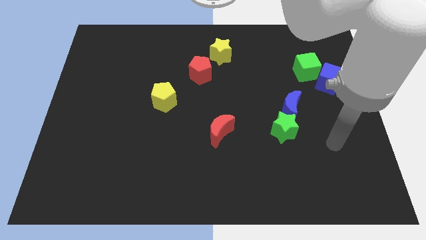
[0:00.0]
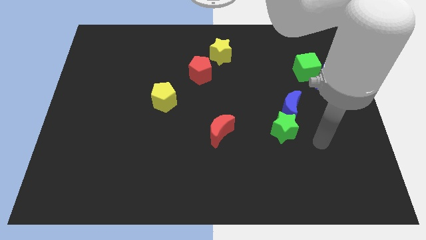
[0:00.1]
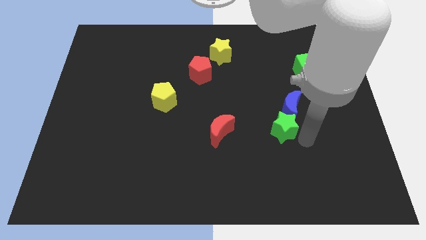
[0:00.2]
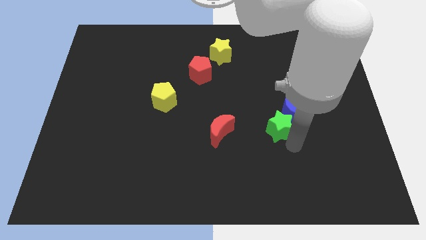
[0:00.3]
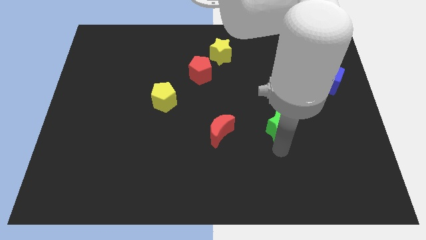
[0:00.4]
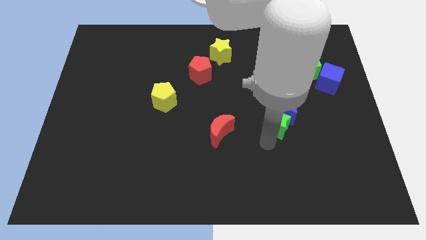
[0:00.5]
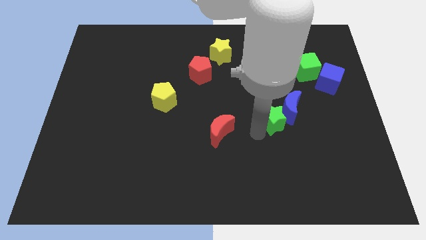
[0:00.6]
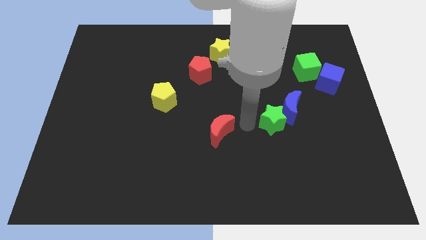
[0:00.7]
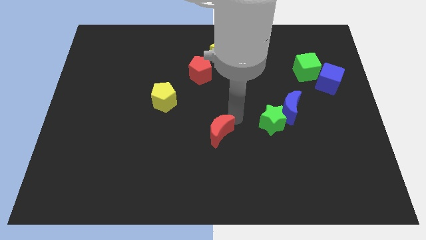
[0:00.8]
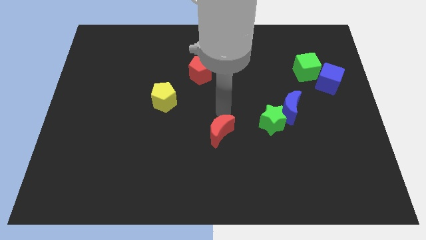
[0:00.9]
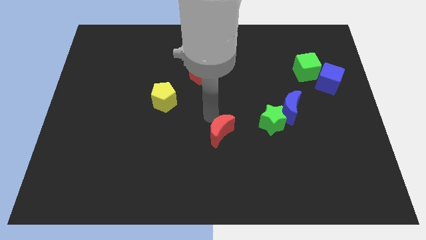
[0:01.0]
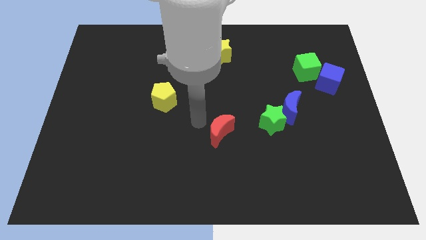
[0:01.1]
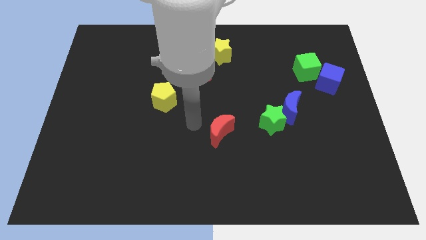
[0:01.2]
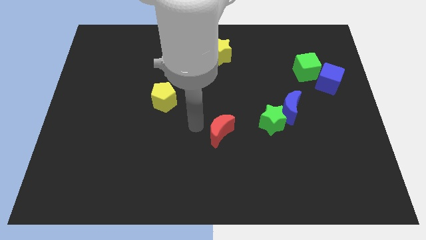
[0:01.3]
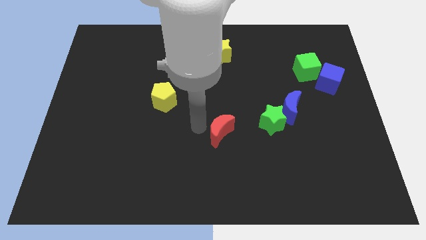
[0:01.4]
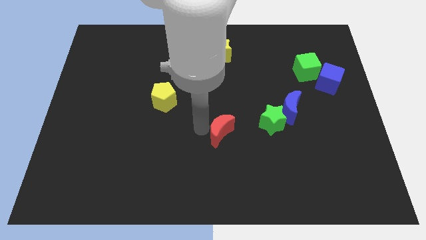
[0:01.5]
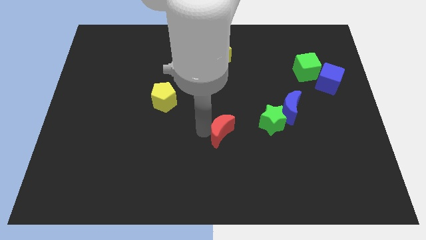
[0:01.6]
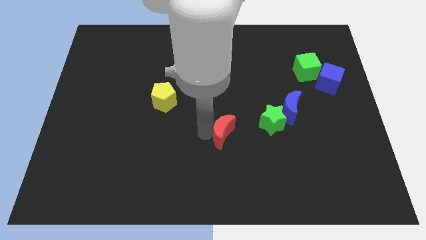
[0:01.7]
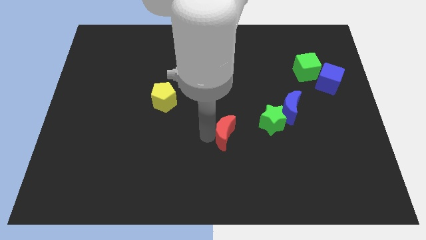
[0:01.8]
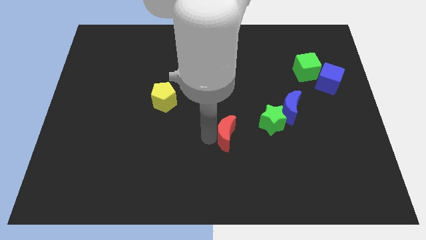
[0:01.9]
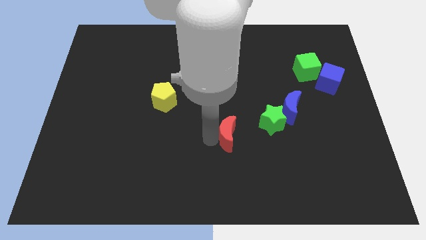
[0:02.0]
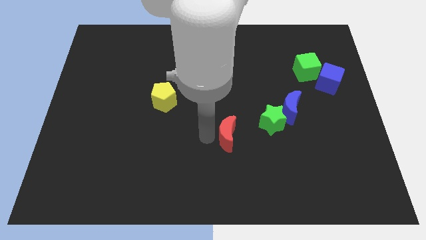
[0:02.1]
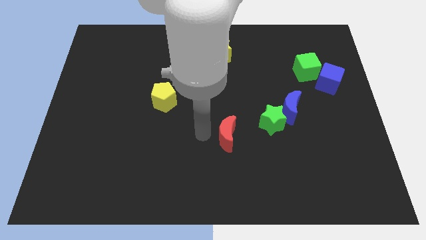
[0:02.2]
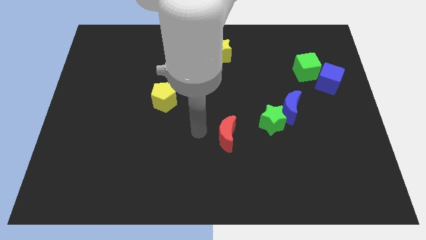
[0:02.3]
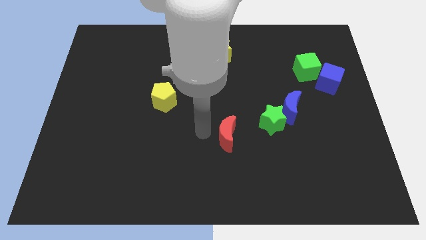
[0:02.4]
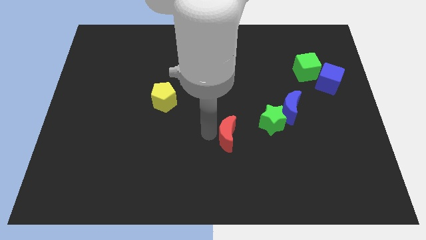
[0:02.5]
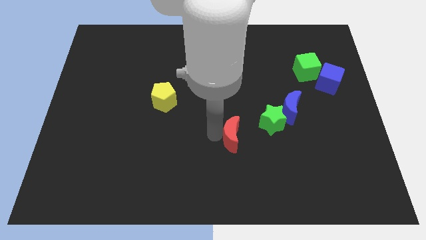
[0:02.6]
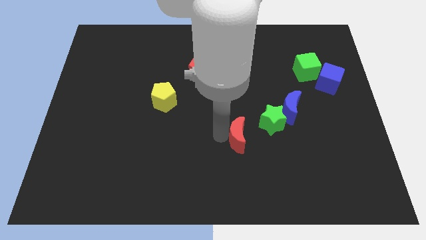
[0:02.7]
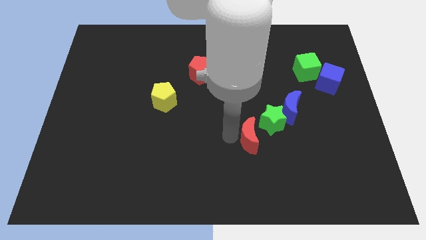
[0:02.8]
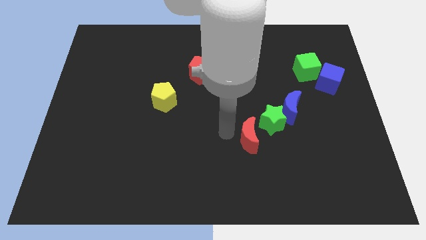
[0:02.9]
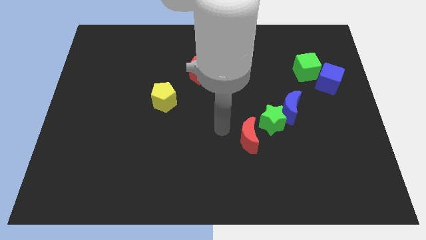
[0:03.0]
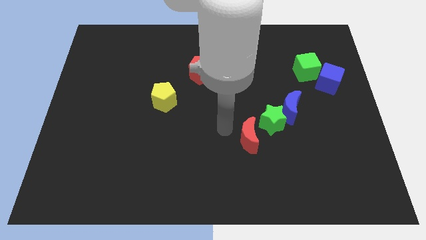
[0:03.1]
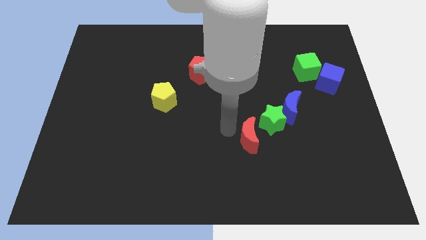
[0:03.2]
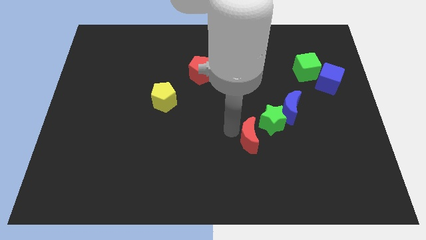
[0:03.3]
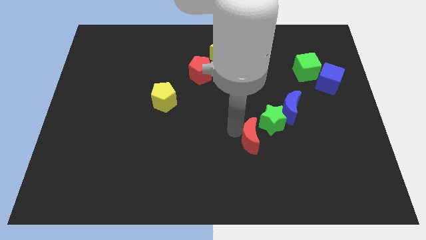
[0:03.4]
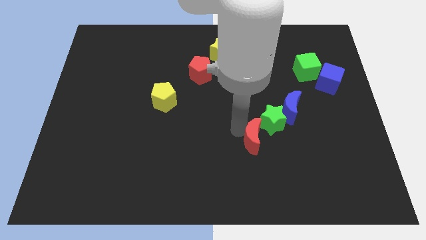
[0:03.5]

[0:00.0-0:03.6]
slightly push the red moon right

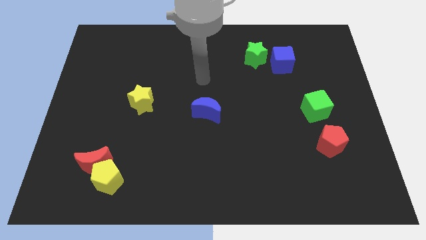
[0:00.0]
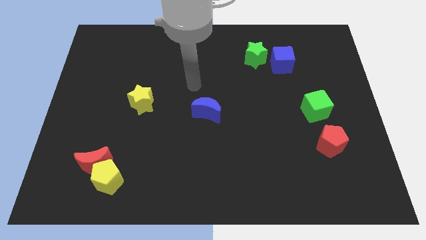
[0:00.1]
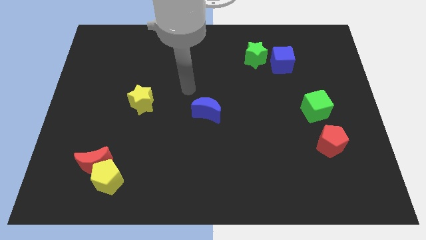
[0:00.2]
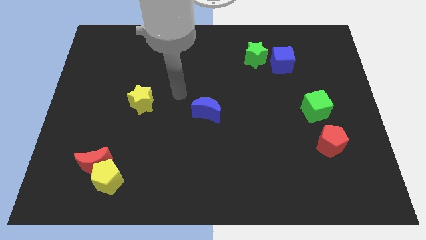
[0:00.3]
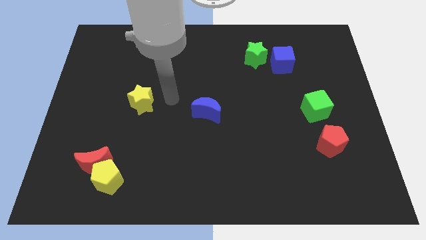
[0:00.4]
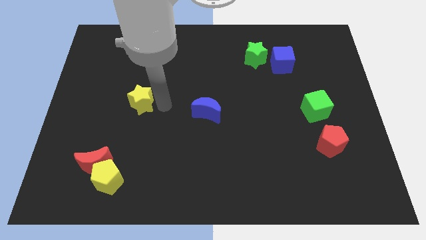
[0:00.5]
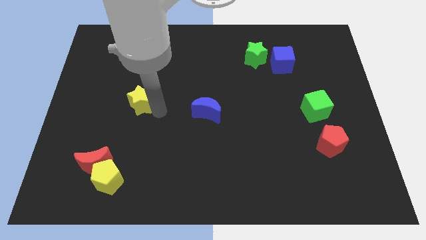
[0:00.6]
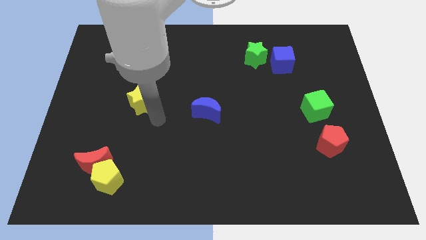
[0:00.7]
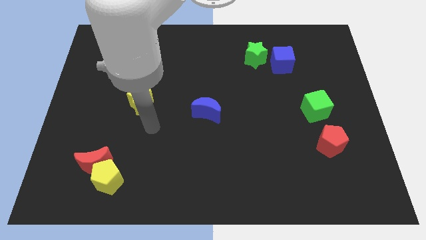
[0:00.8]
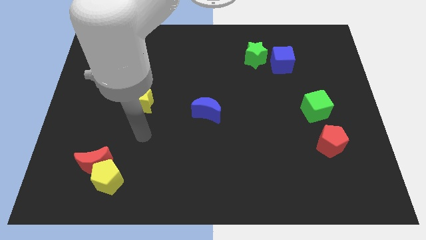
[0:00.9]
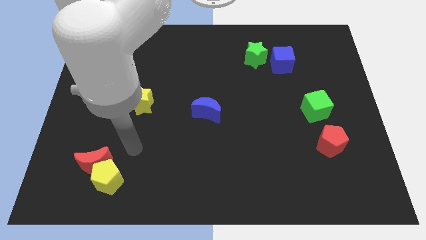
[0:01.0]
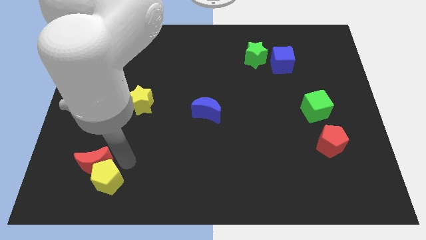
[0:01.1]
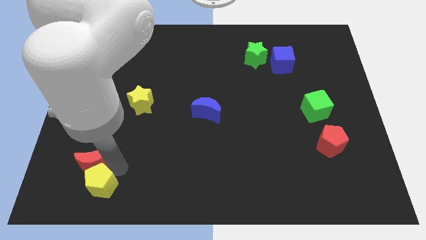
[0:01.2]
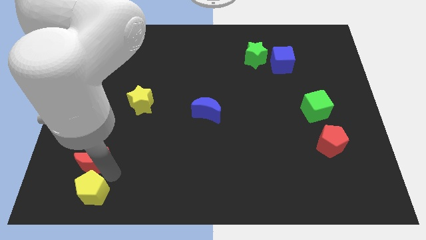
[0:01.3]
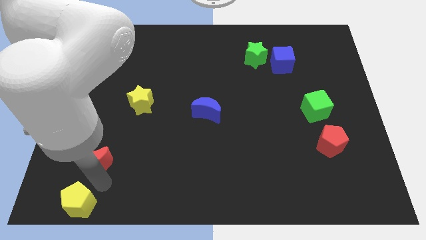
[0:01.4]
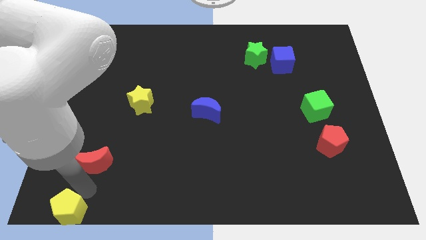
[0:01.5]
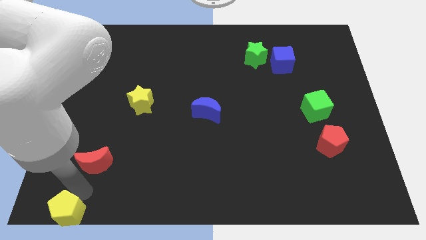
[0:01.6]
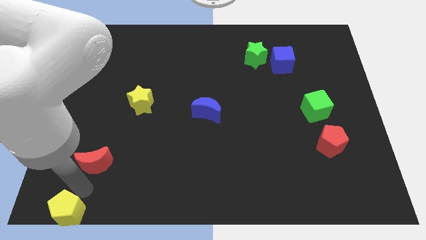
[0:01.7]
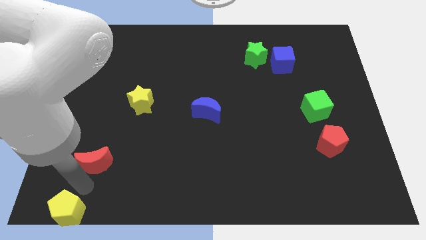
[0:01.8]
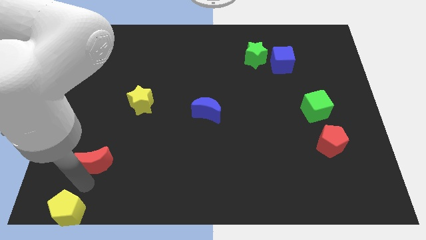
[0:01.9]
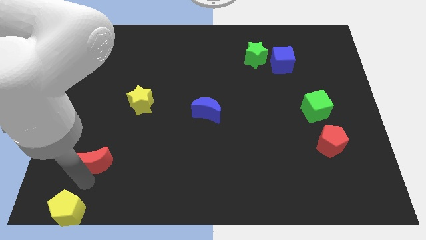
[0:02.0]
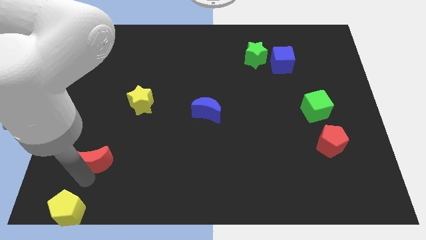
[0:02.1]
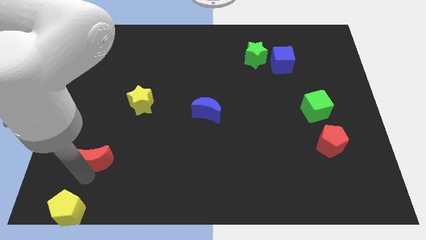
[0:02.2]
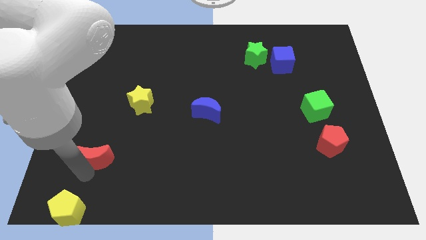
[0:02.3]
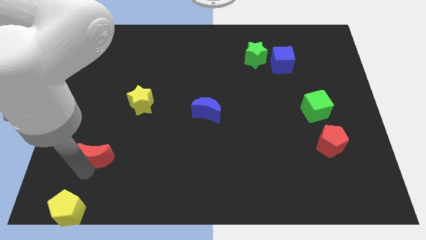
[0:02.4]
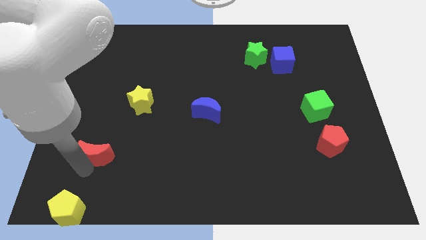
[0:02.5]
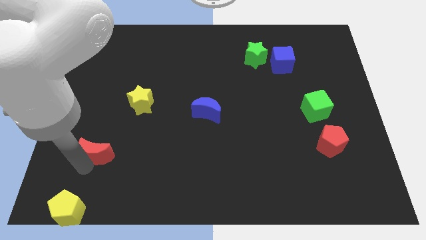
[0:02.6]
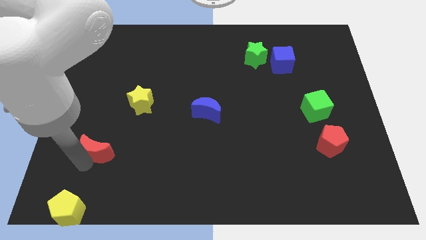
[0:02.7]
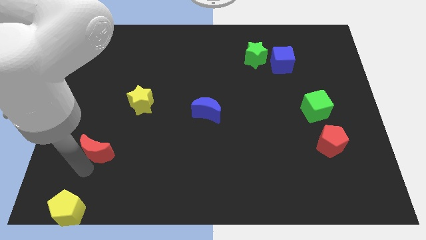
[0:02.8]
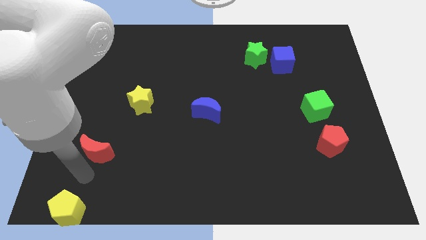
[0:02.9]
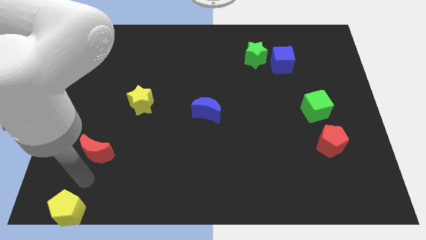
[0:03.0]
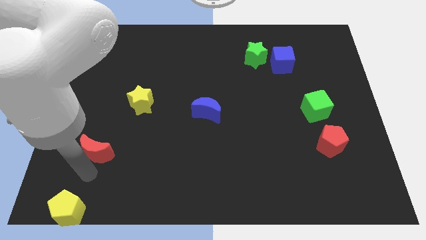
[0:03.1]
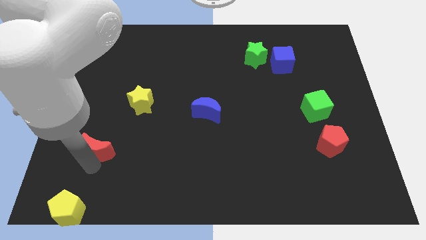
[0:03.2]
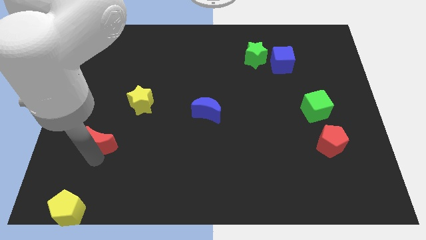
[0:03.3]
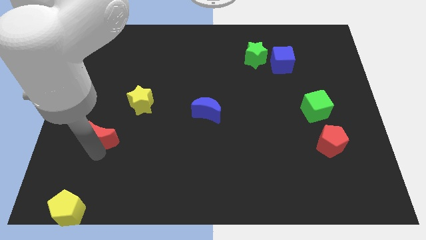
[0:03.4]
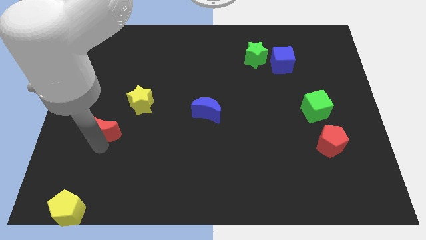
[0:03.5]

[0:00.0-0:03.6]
slide the red moon up somewhat

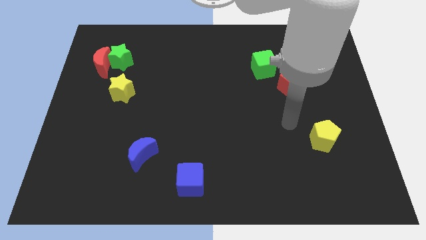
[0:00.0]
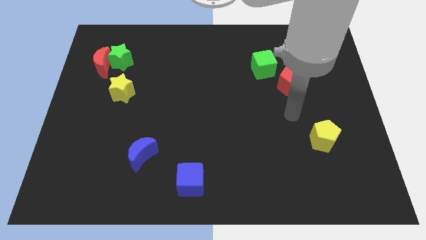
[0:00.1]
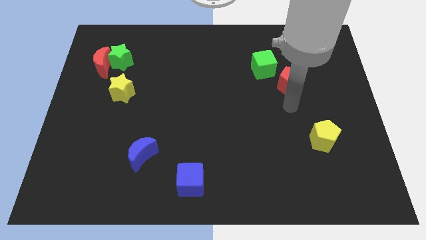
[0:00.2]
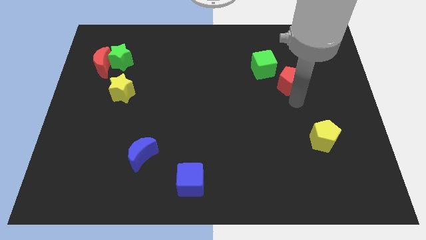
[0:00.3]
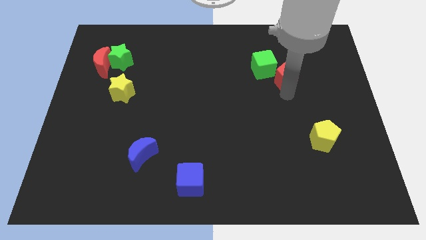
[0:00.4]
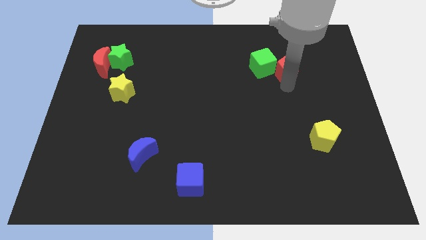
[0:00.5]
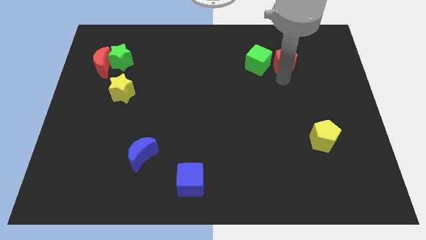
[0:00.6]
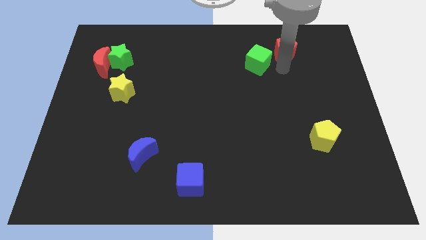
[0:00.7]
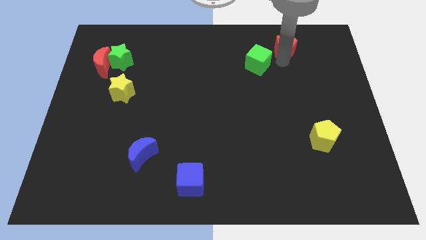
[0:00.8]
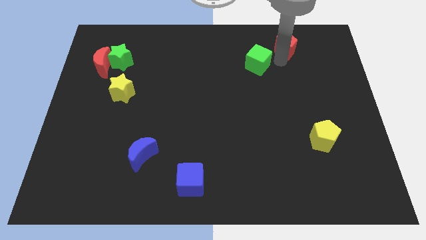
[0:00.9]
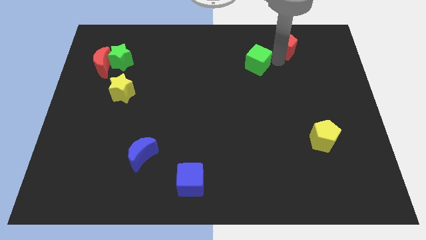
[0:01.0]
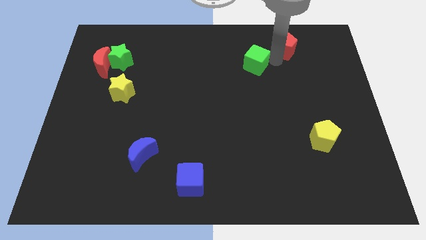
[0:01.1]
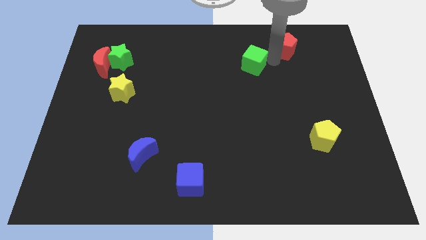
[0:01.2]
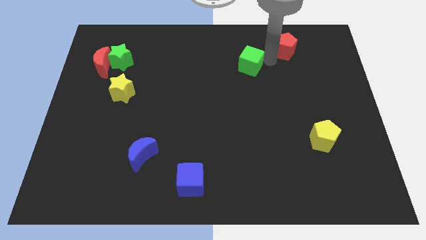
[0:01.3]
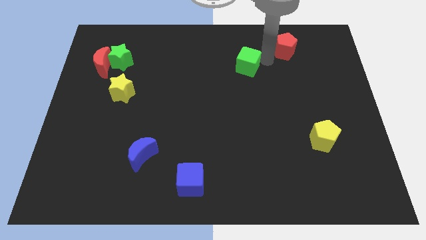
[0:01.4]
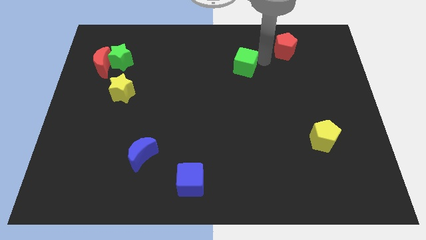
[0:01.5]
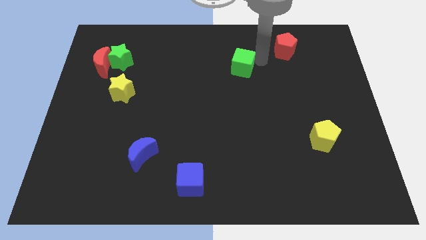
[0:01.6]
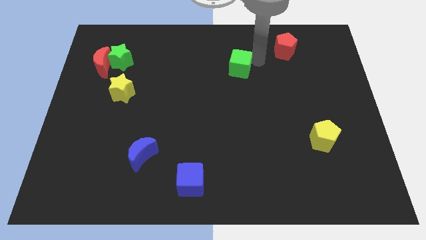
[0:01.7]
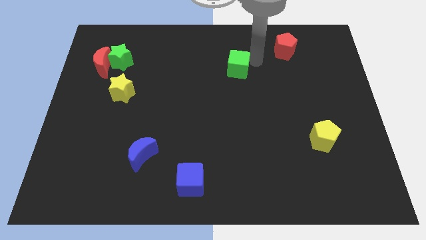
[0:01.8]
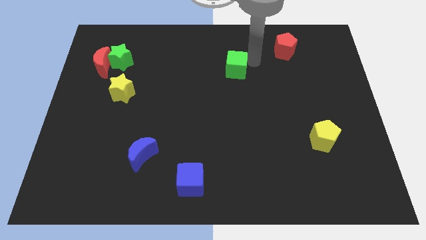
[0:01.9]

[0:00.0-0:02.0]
slightly move the green cube left
